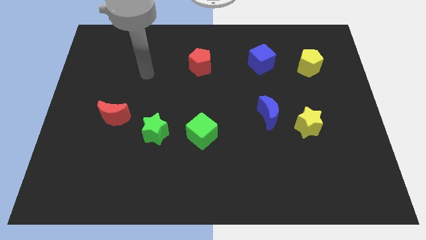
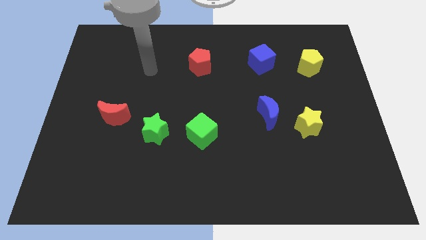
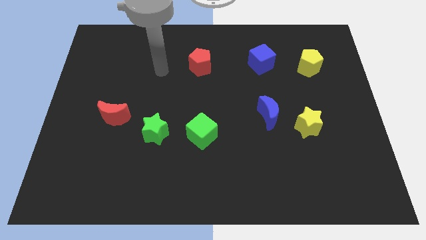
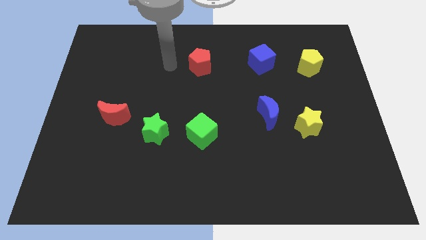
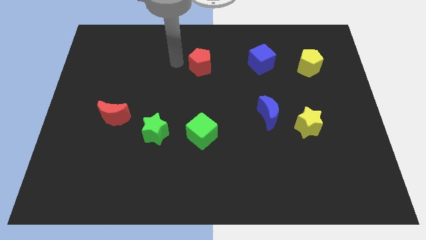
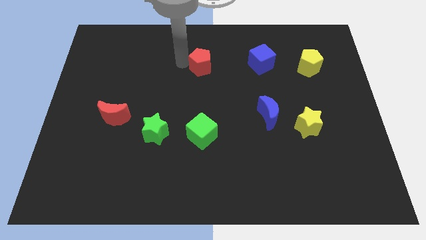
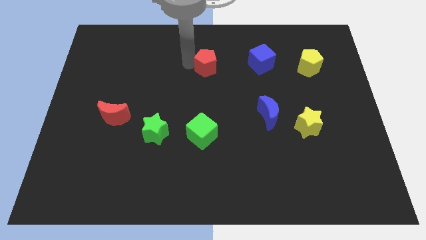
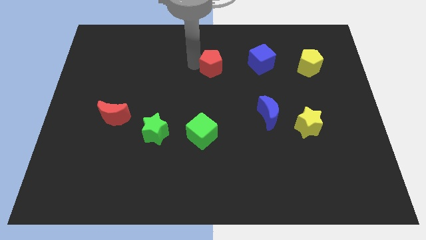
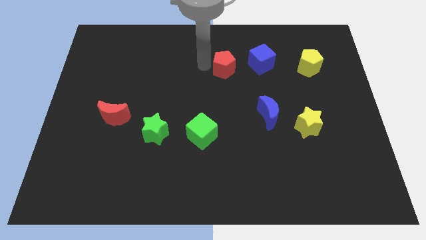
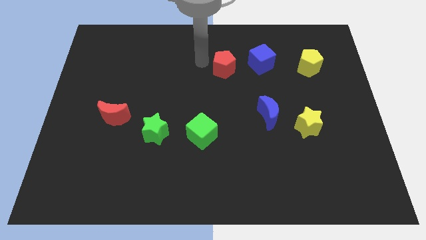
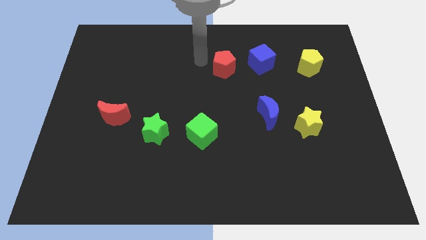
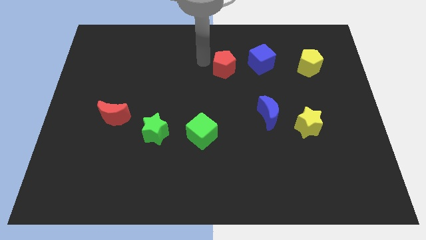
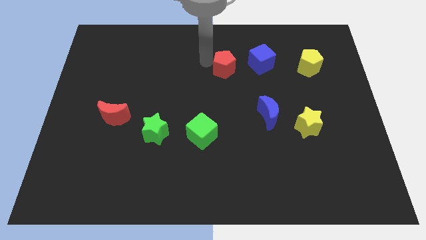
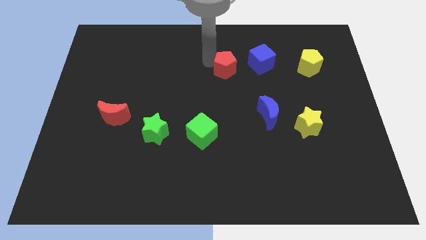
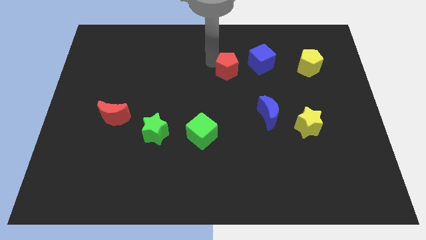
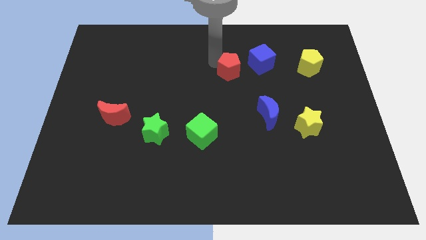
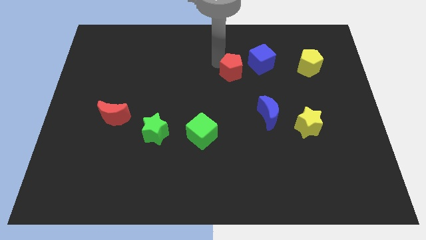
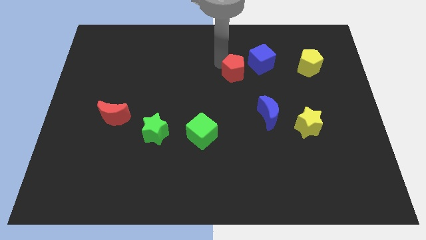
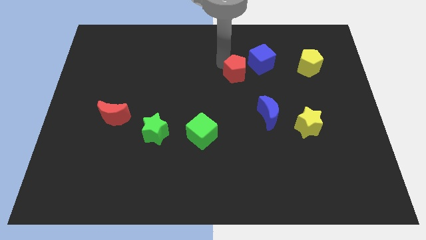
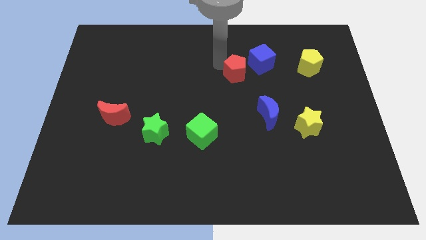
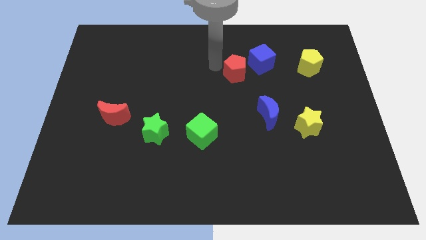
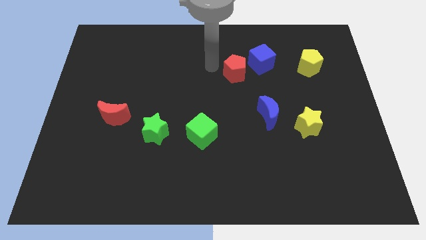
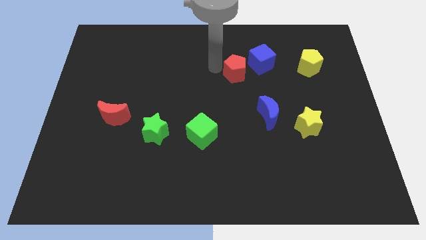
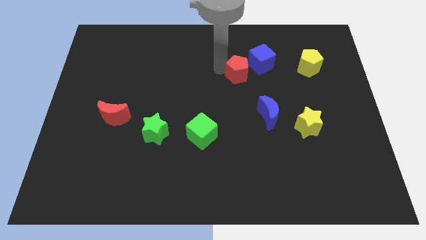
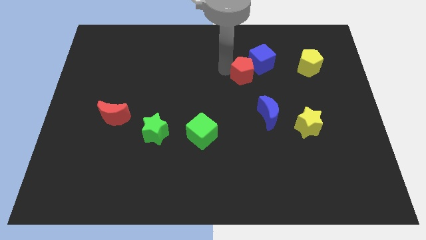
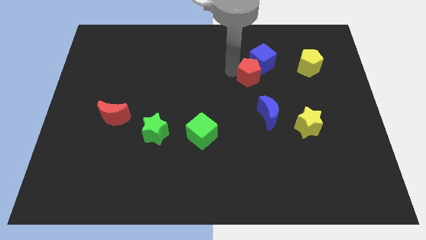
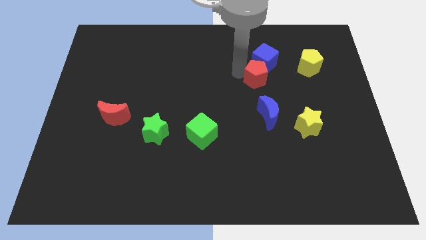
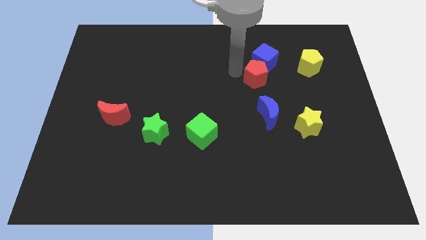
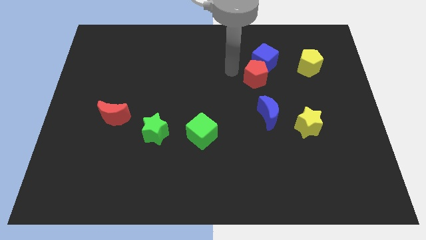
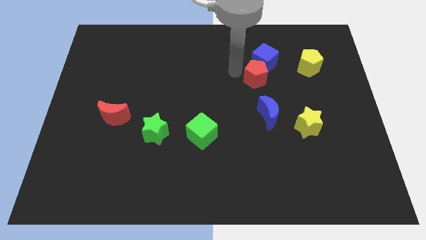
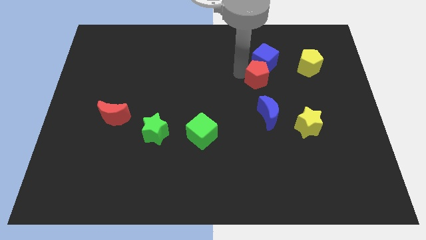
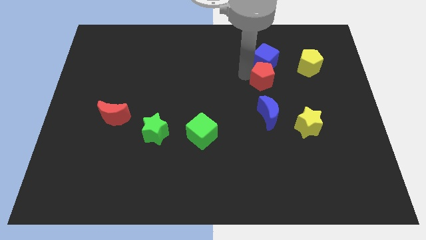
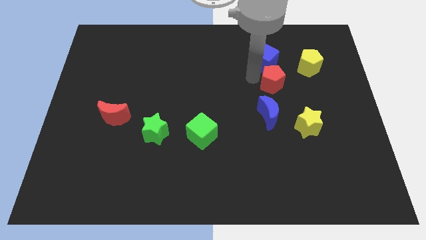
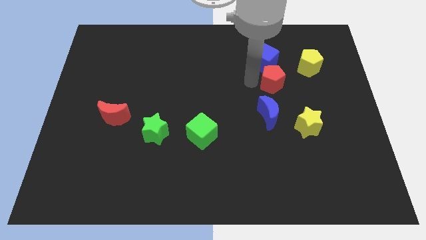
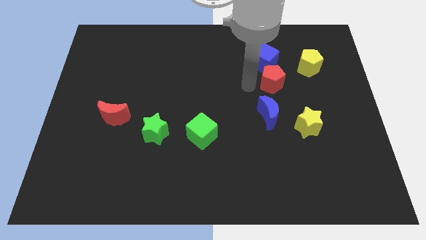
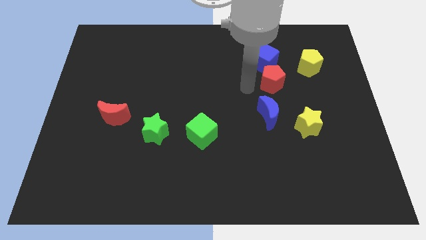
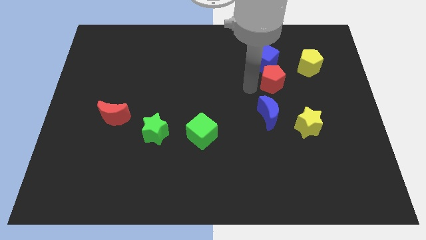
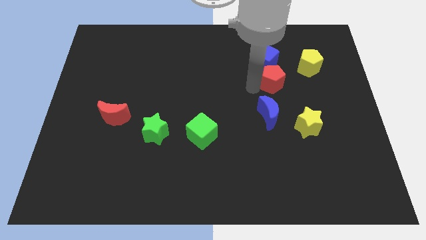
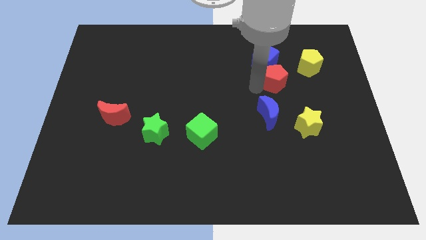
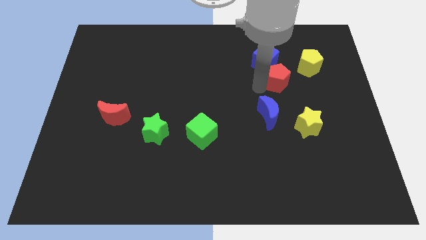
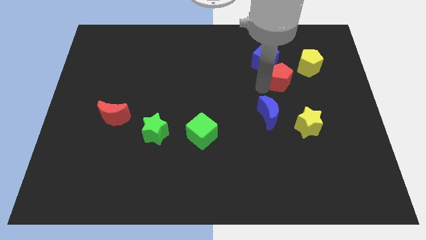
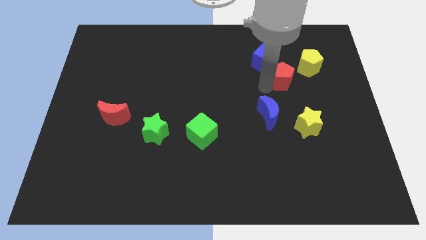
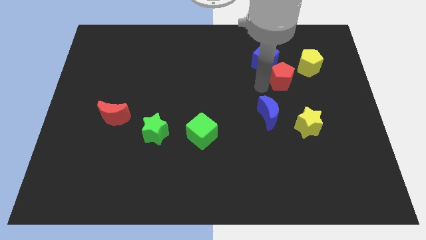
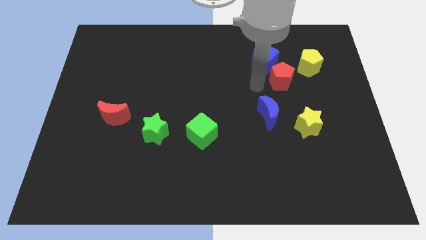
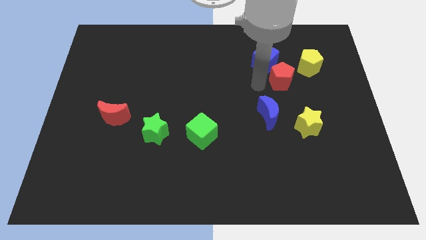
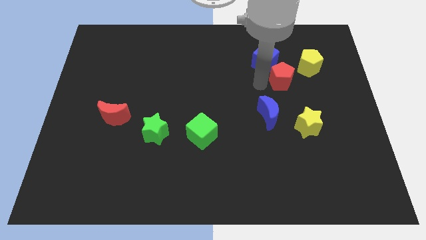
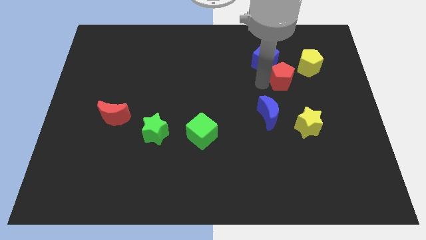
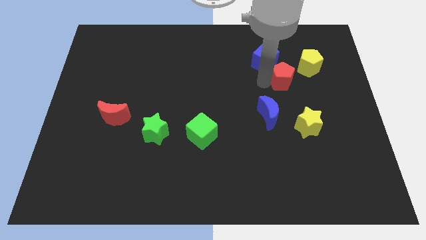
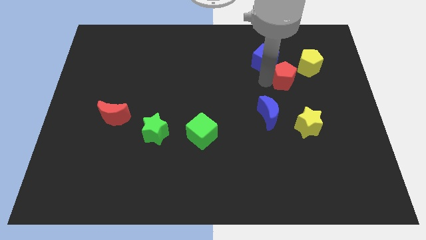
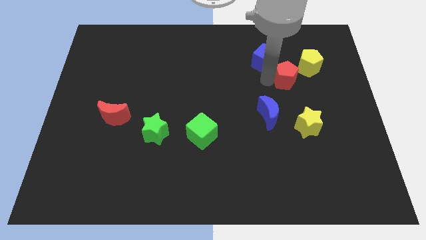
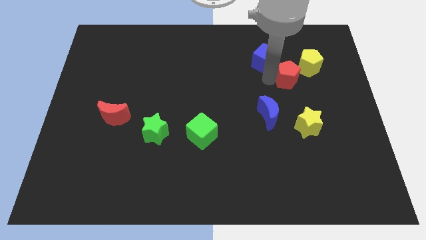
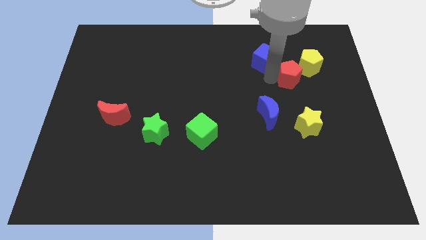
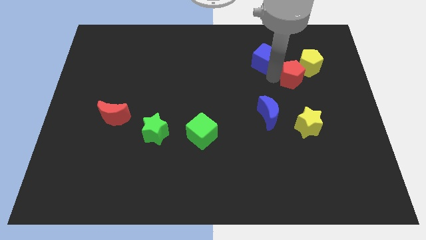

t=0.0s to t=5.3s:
put the red pentagon towards the yellow pentagon

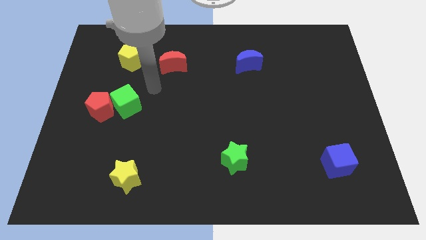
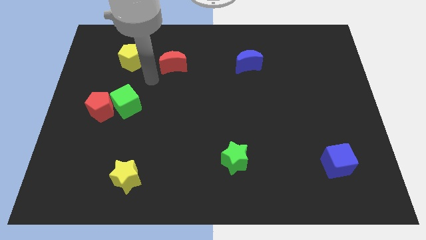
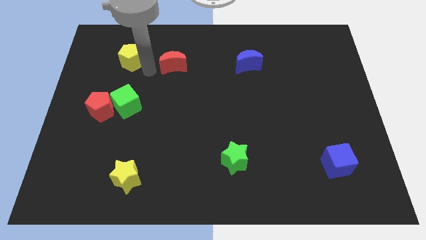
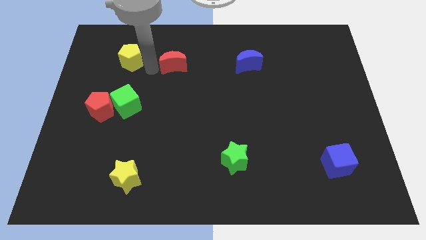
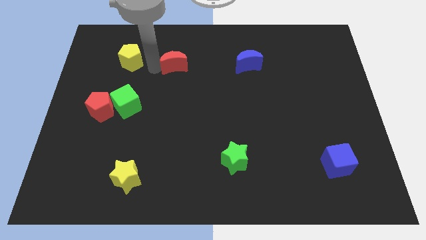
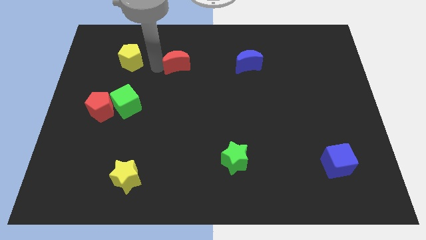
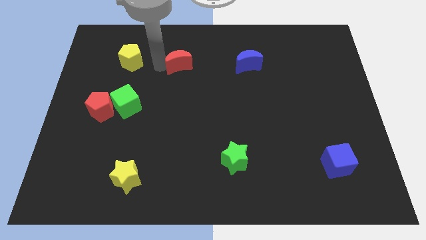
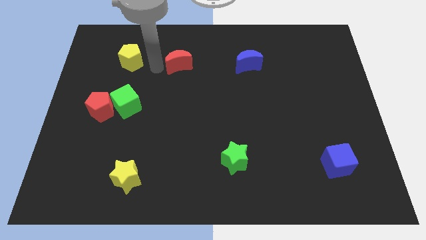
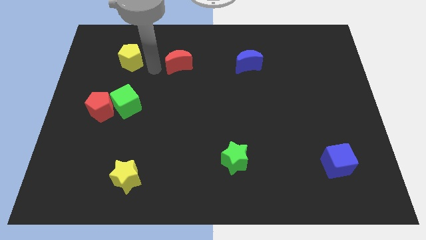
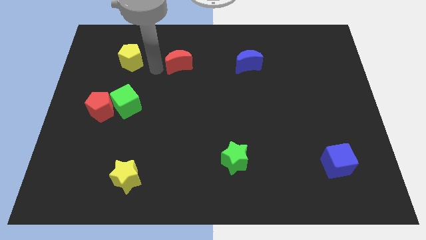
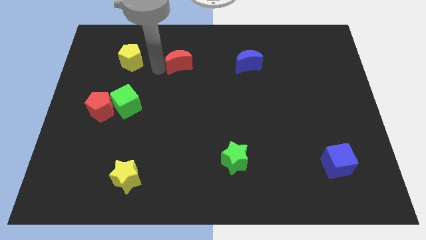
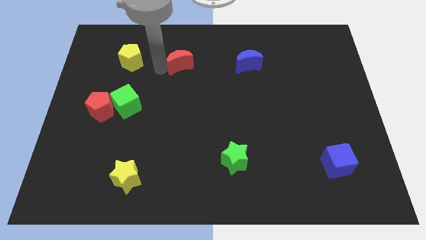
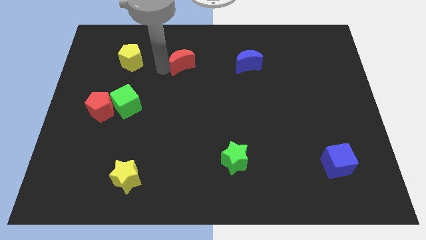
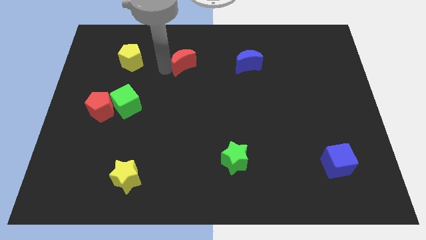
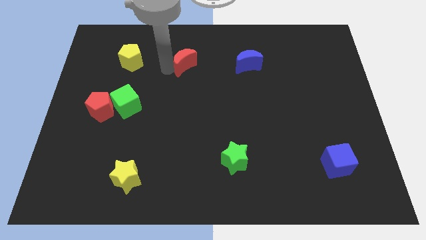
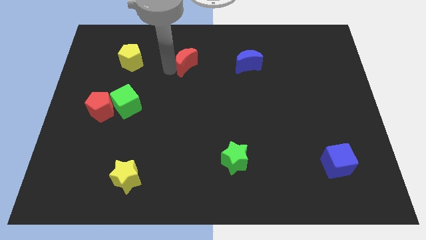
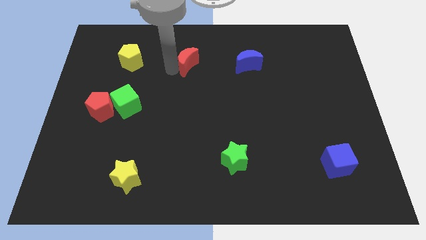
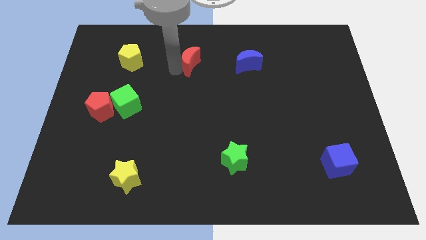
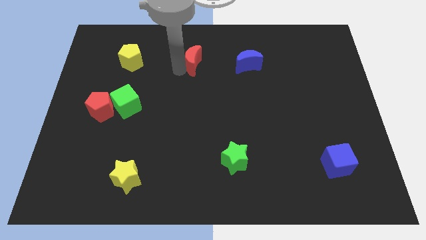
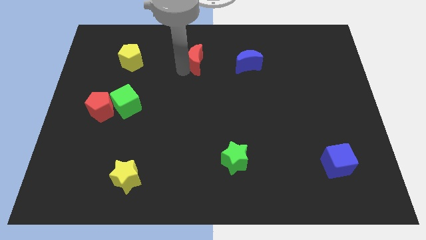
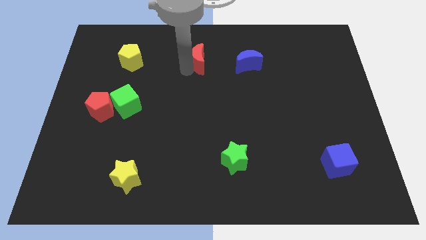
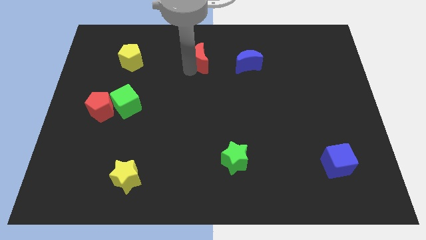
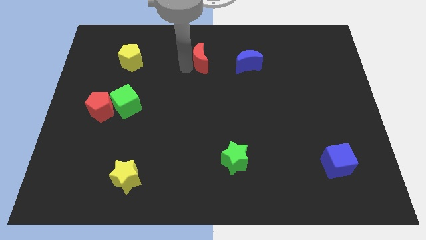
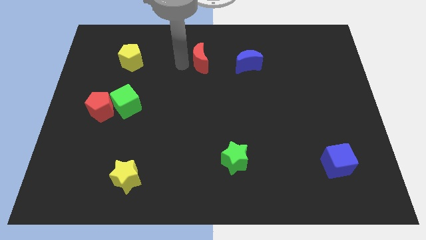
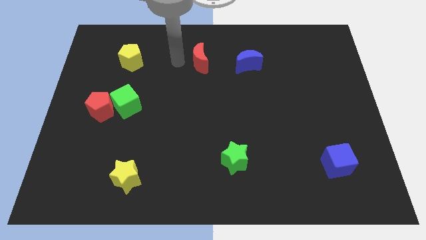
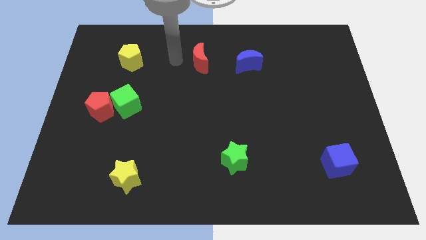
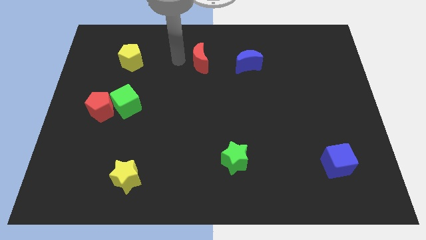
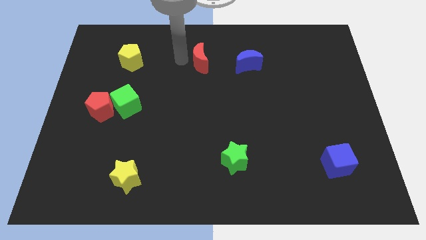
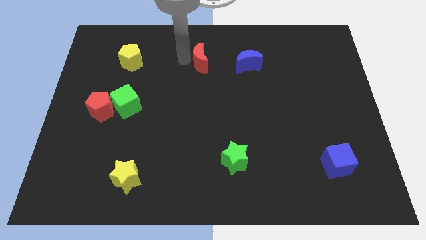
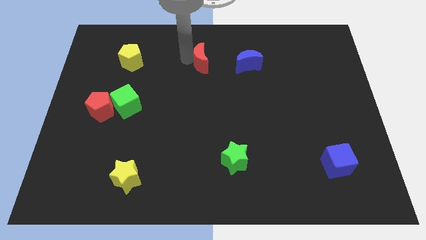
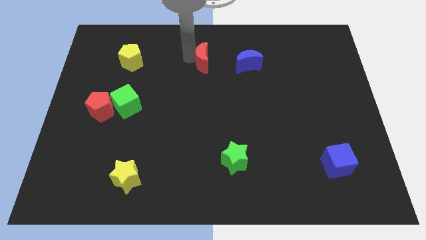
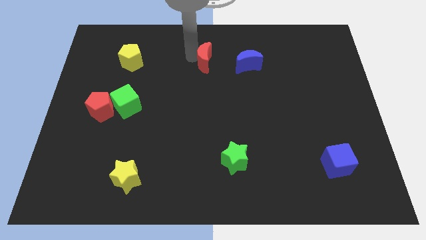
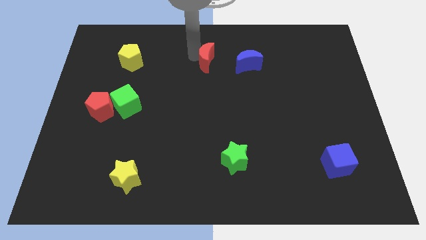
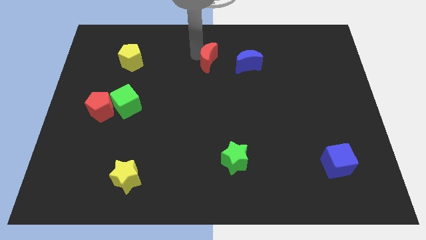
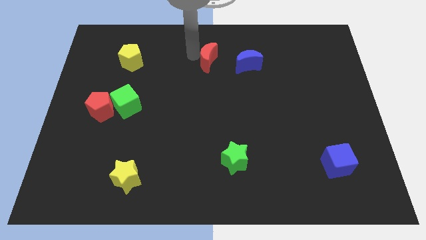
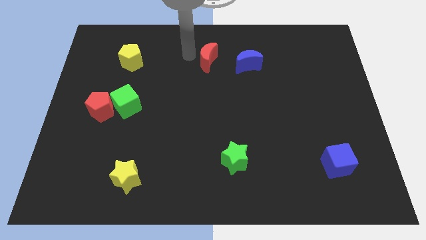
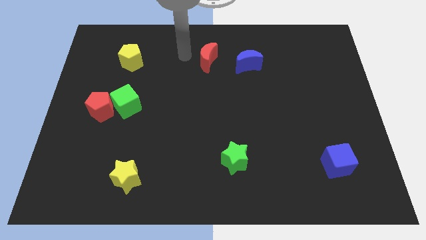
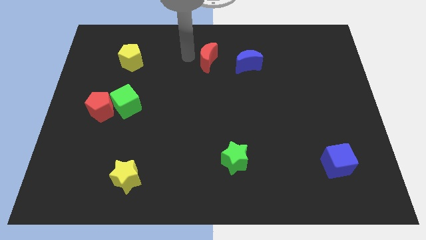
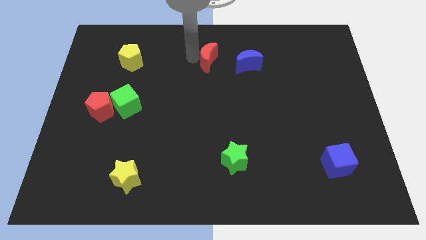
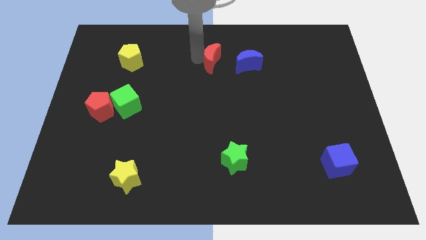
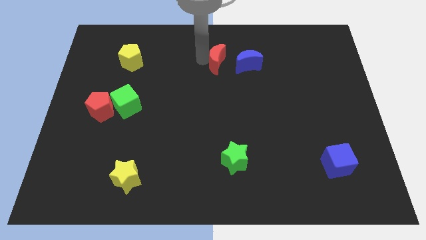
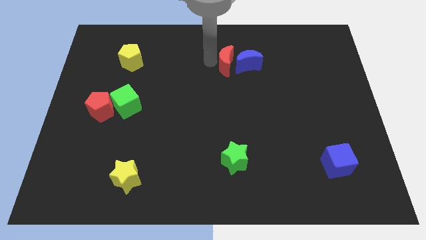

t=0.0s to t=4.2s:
push the red moon to the blue moon
